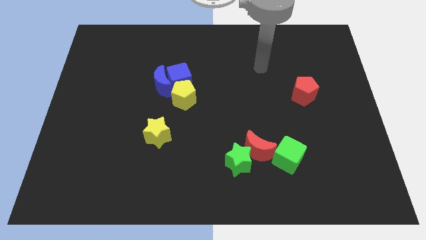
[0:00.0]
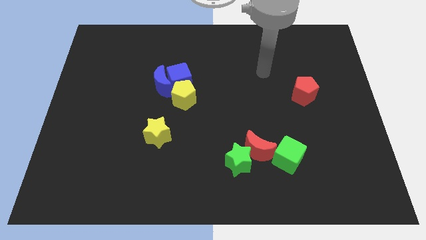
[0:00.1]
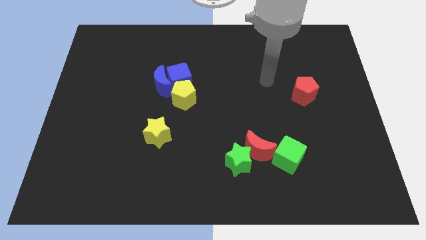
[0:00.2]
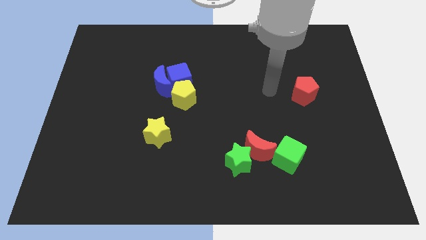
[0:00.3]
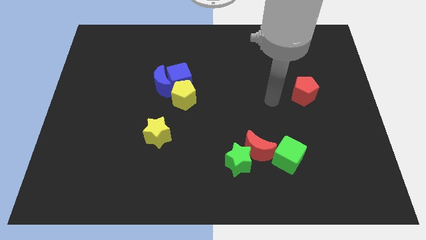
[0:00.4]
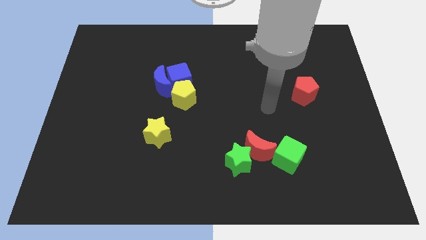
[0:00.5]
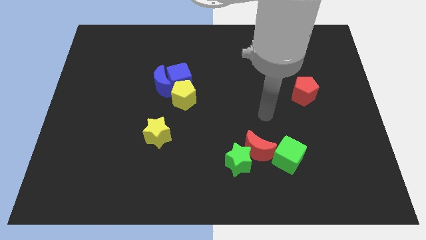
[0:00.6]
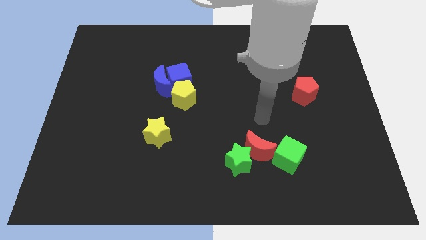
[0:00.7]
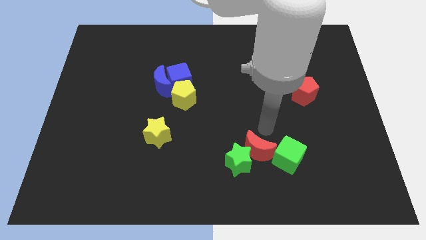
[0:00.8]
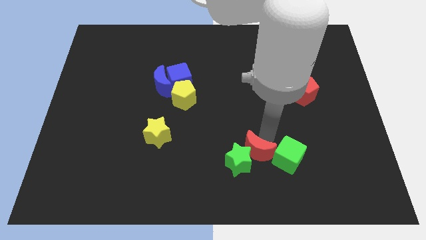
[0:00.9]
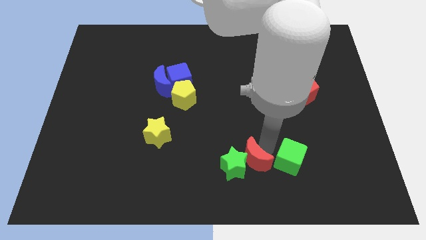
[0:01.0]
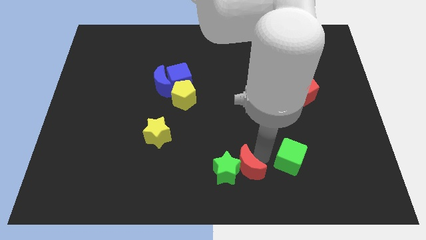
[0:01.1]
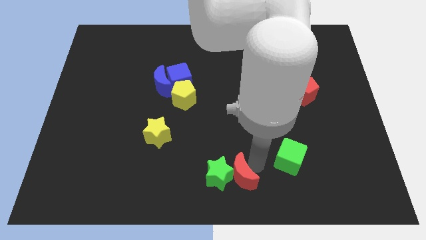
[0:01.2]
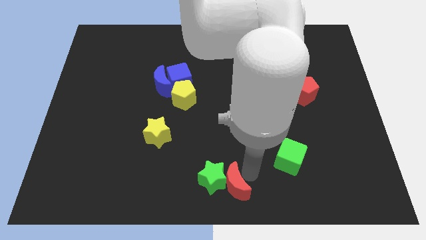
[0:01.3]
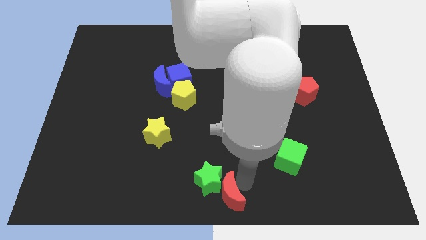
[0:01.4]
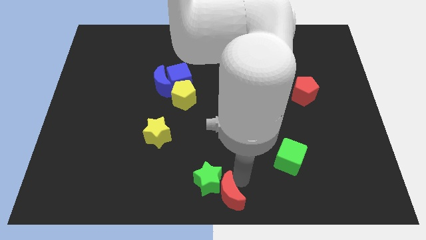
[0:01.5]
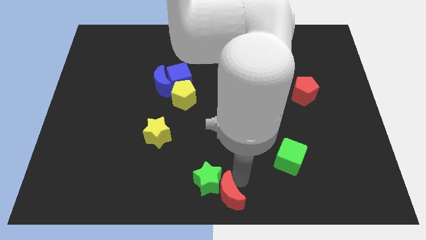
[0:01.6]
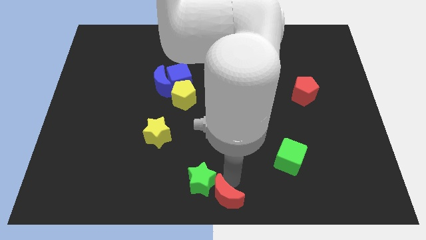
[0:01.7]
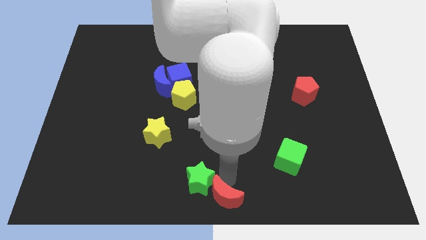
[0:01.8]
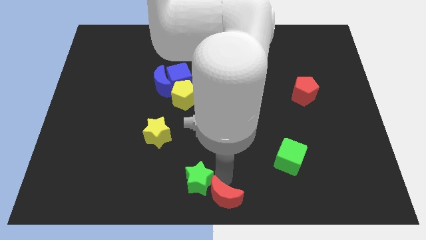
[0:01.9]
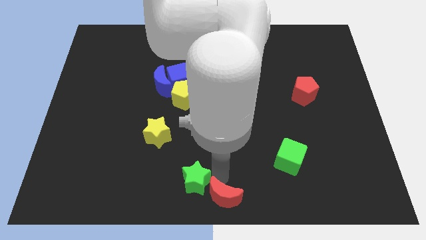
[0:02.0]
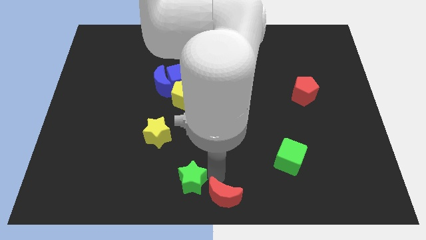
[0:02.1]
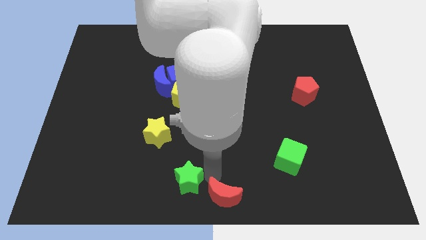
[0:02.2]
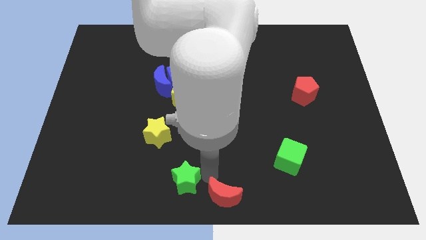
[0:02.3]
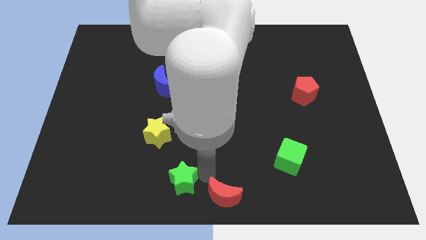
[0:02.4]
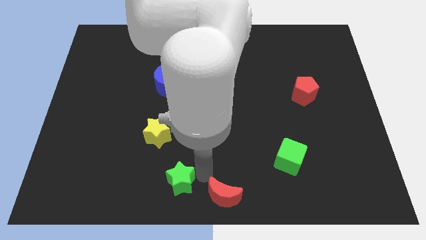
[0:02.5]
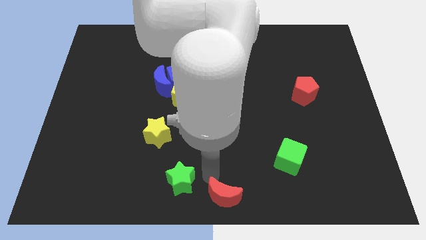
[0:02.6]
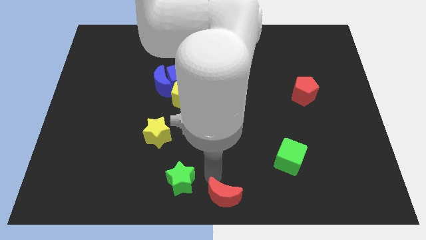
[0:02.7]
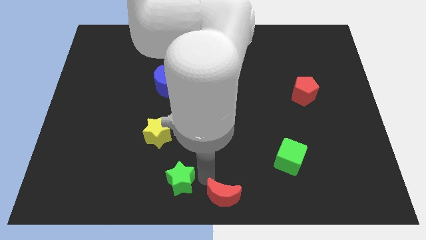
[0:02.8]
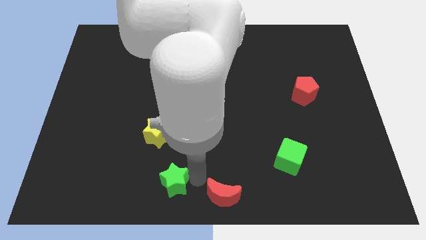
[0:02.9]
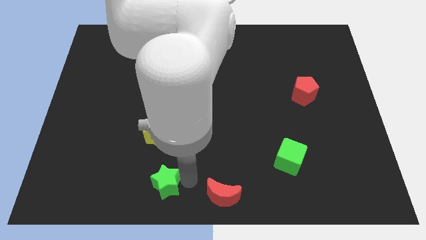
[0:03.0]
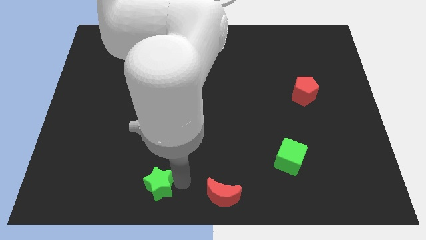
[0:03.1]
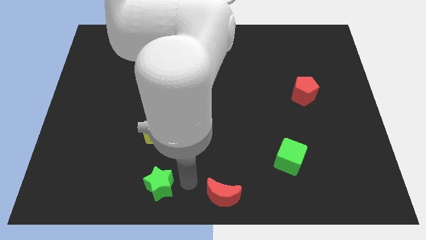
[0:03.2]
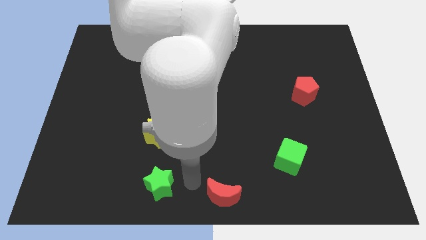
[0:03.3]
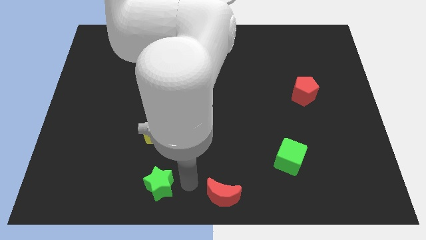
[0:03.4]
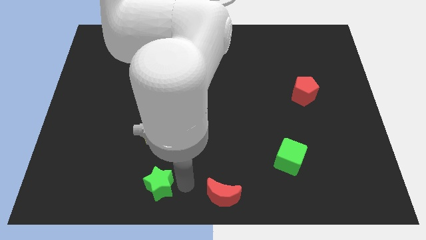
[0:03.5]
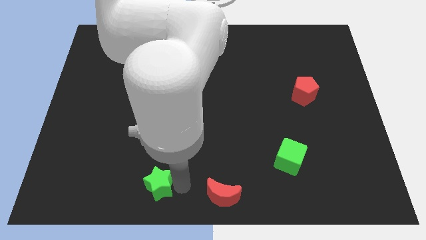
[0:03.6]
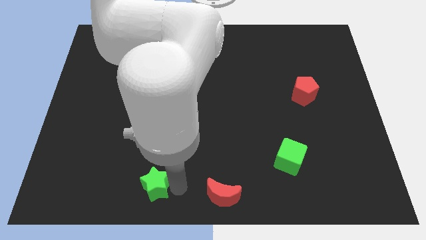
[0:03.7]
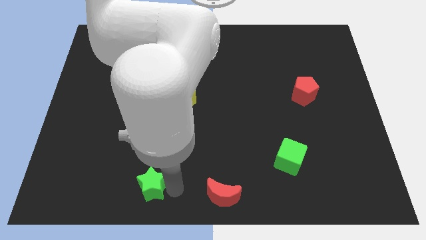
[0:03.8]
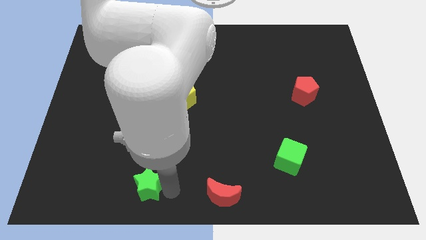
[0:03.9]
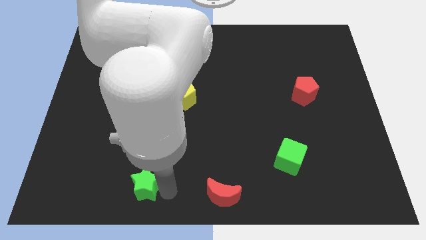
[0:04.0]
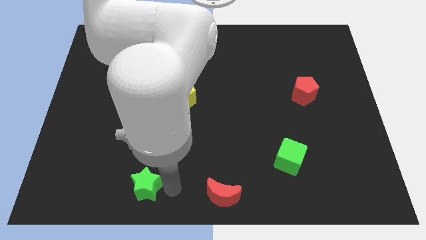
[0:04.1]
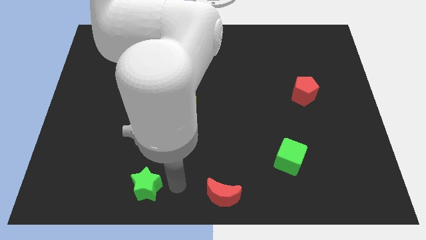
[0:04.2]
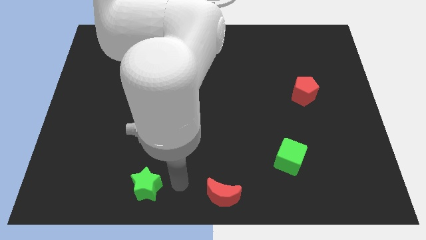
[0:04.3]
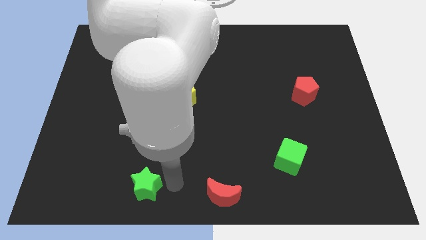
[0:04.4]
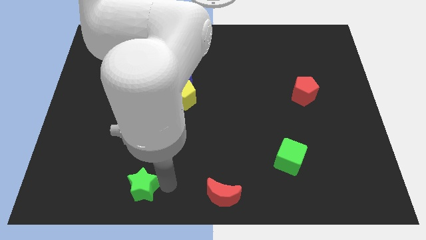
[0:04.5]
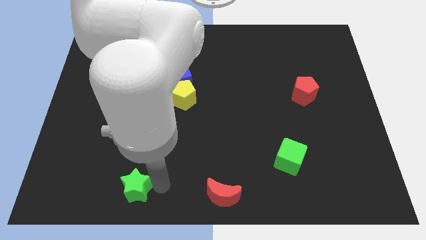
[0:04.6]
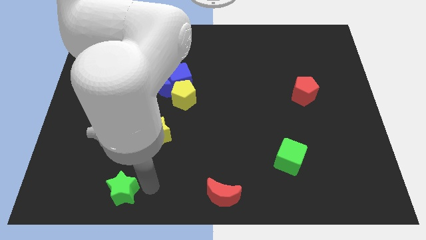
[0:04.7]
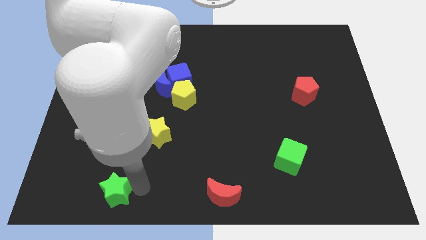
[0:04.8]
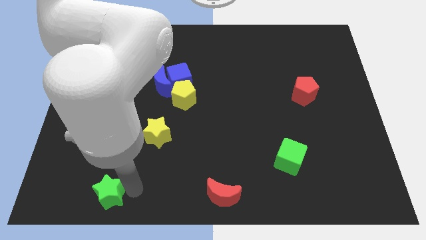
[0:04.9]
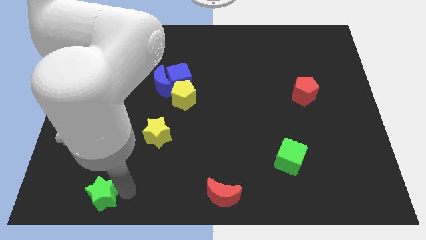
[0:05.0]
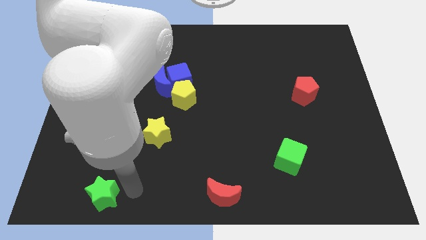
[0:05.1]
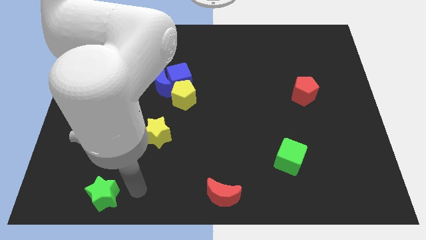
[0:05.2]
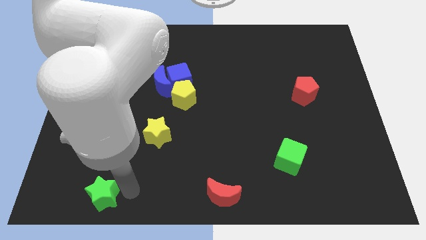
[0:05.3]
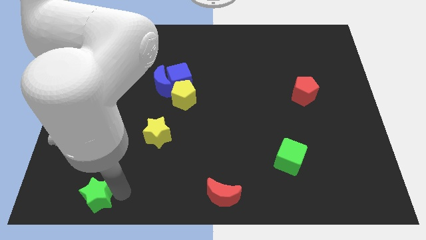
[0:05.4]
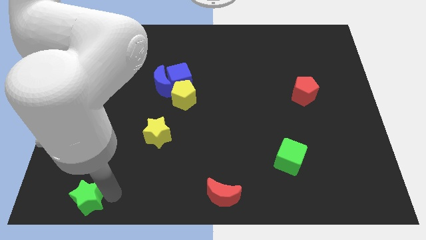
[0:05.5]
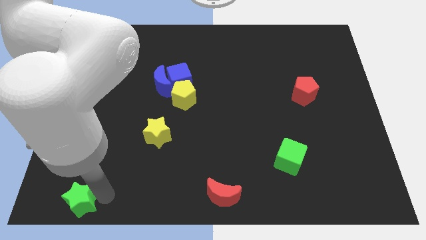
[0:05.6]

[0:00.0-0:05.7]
slide the green star to the lower left corner
